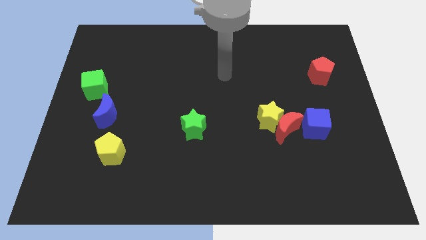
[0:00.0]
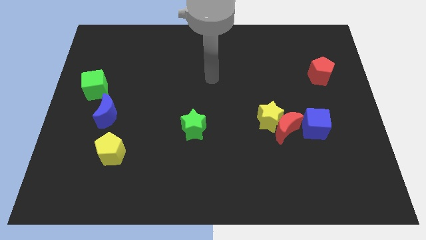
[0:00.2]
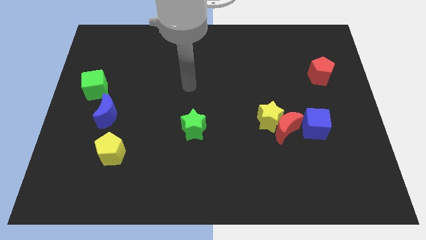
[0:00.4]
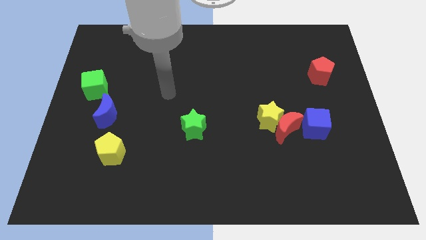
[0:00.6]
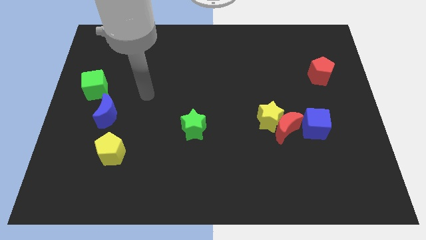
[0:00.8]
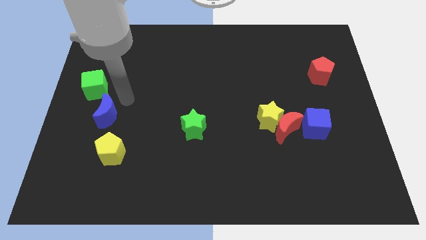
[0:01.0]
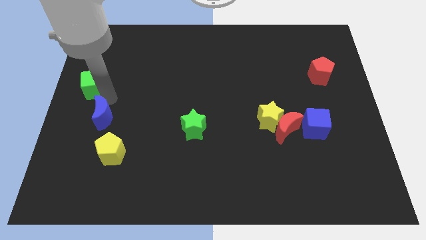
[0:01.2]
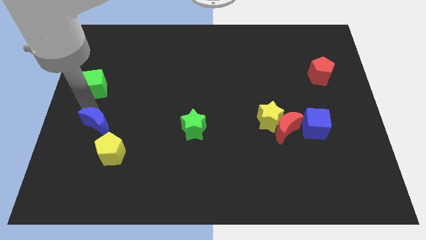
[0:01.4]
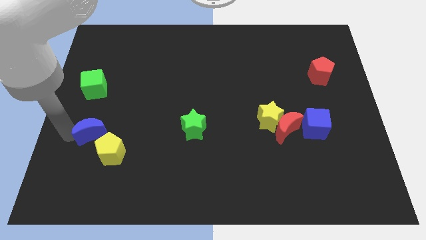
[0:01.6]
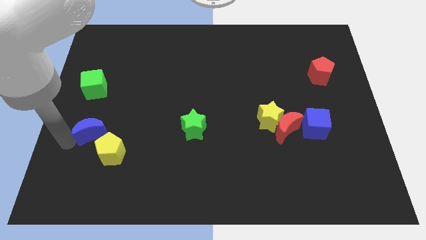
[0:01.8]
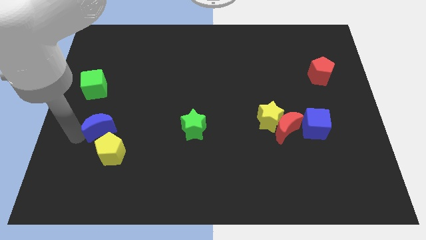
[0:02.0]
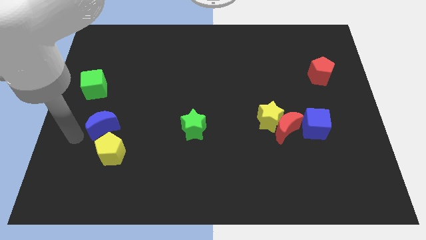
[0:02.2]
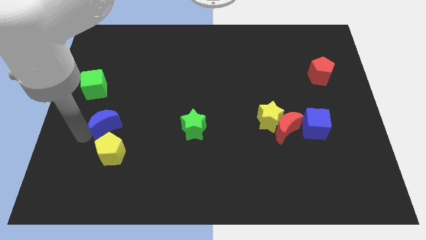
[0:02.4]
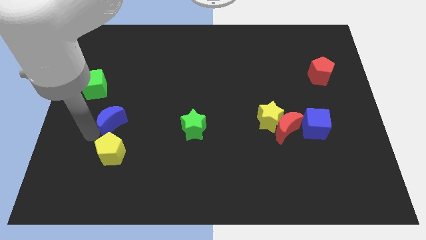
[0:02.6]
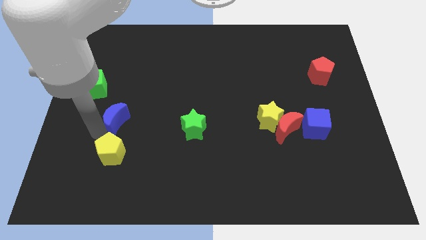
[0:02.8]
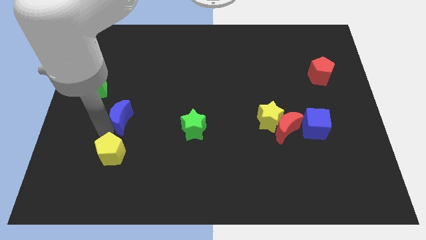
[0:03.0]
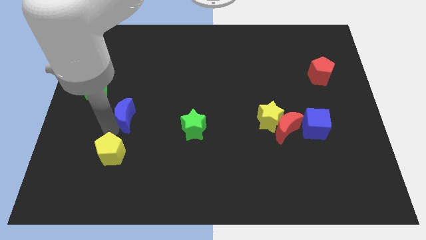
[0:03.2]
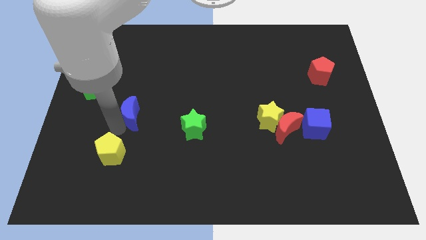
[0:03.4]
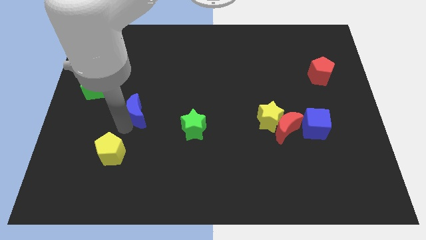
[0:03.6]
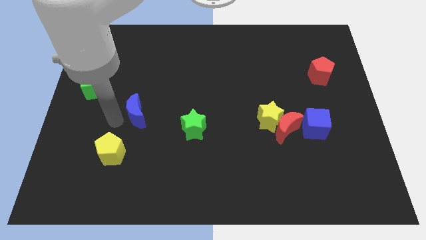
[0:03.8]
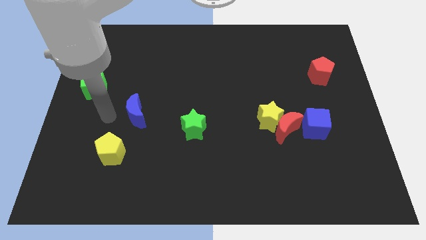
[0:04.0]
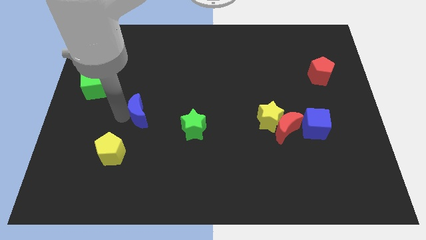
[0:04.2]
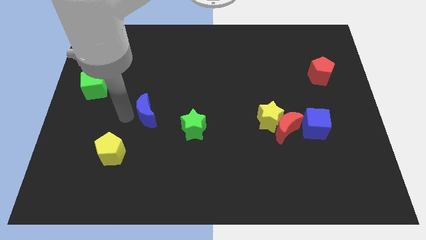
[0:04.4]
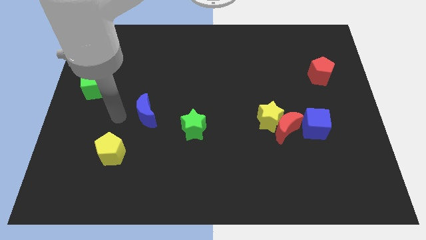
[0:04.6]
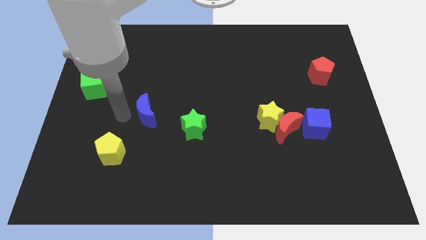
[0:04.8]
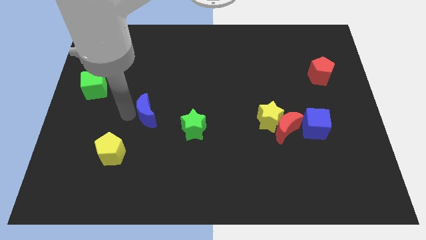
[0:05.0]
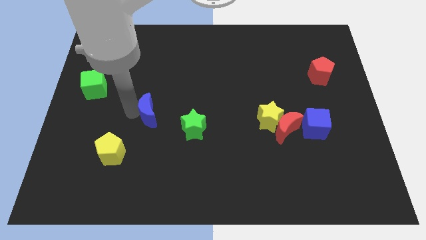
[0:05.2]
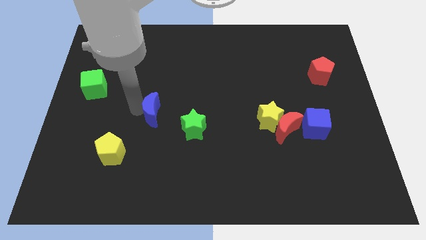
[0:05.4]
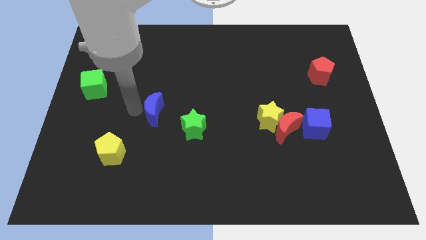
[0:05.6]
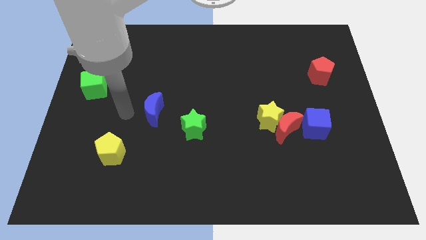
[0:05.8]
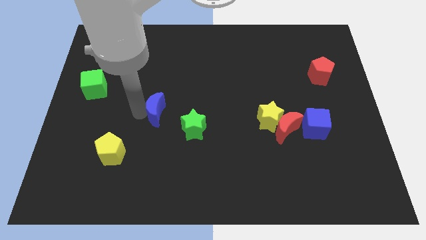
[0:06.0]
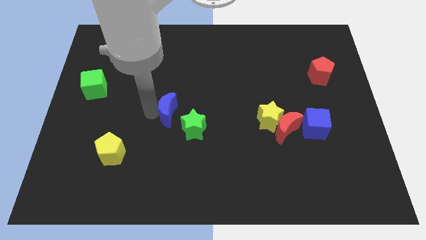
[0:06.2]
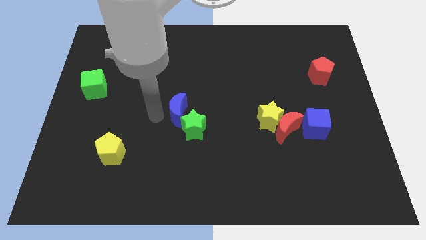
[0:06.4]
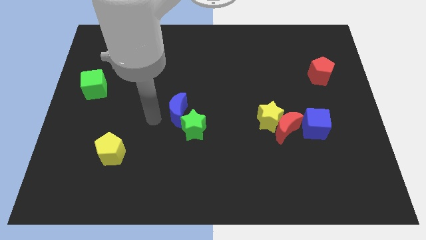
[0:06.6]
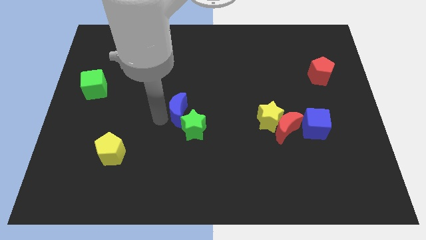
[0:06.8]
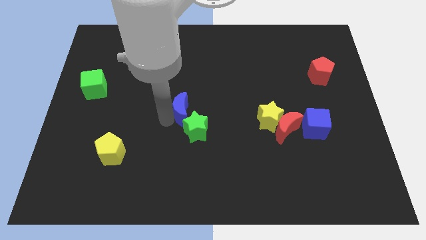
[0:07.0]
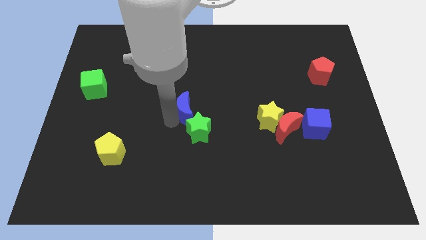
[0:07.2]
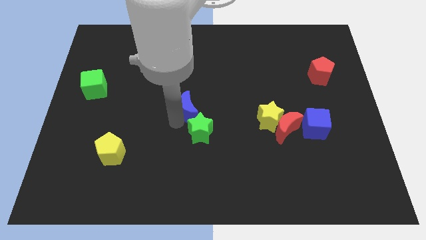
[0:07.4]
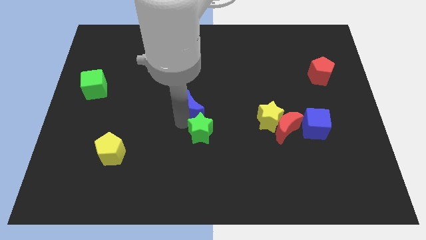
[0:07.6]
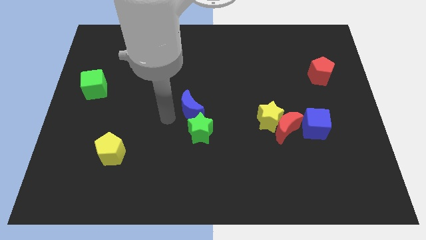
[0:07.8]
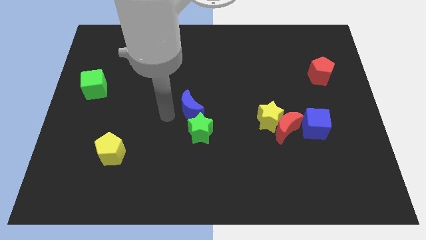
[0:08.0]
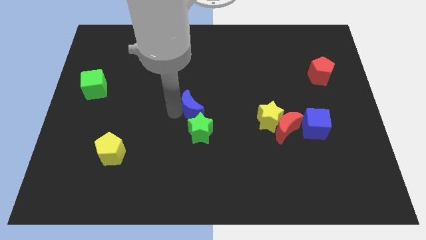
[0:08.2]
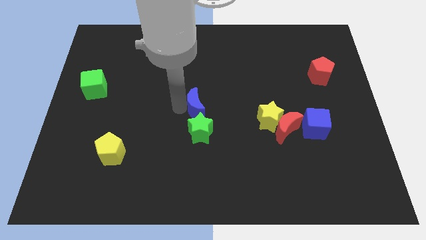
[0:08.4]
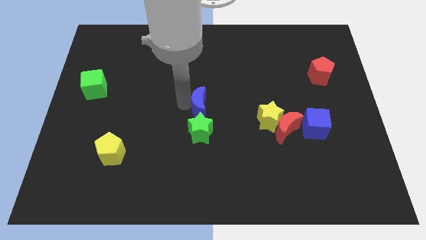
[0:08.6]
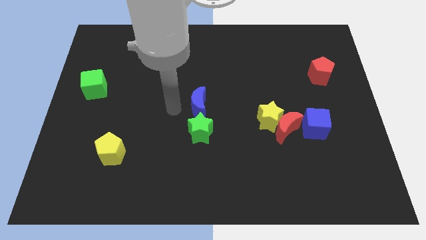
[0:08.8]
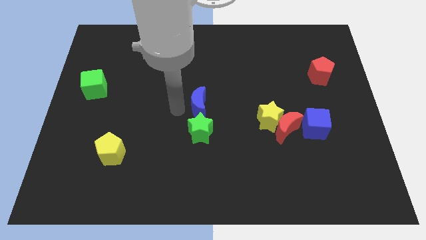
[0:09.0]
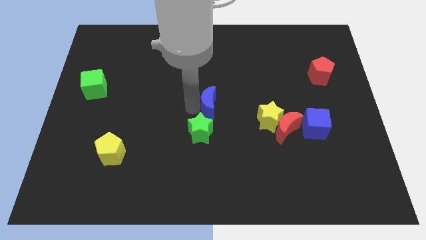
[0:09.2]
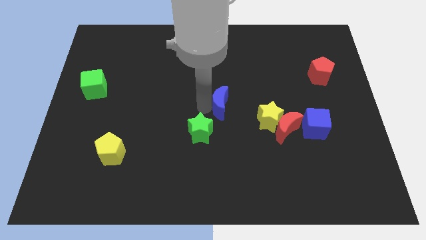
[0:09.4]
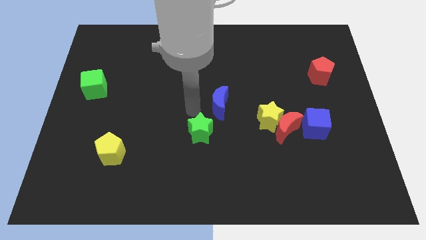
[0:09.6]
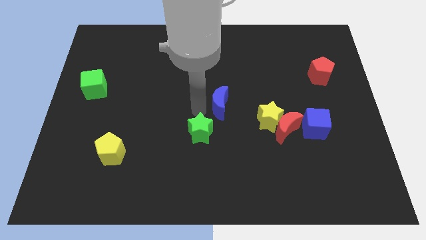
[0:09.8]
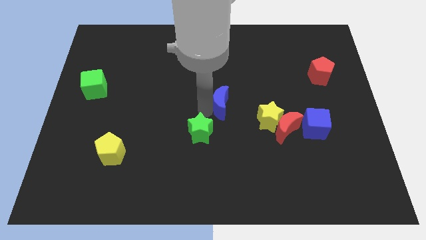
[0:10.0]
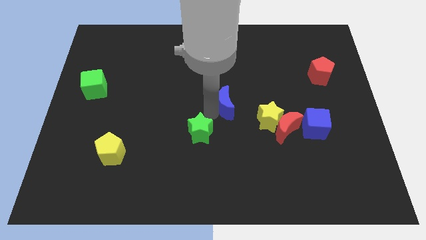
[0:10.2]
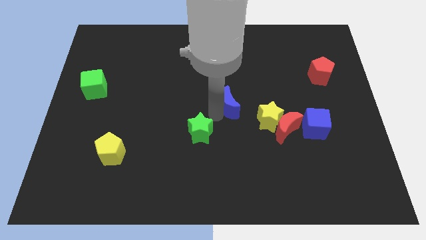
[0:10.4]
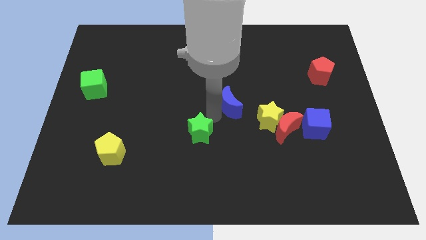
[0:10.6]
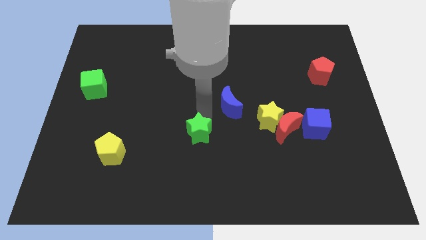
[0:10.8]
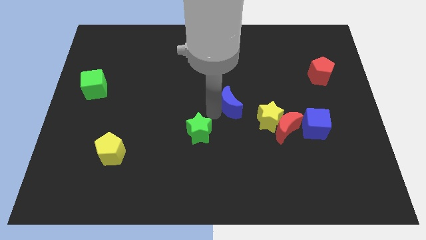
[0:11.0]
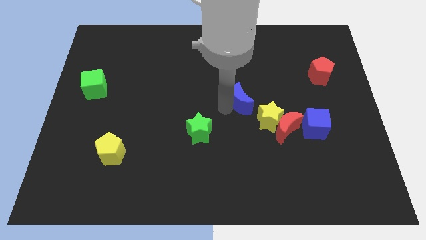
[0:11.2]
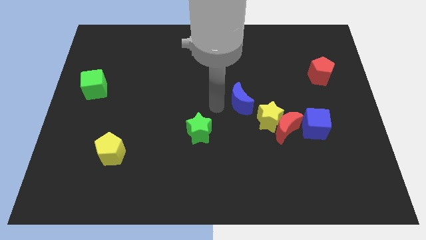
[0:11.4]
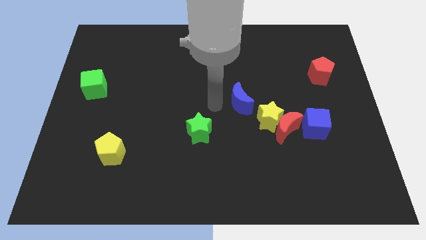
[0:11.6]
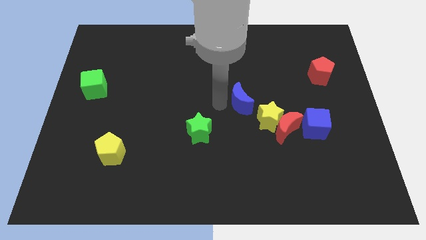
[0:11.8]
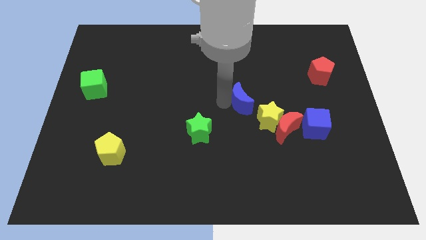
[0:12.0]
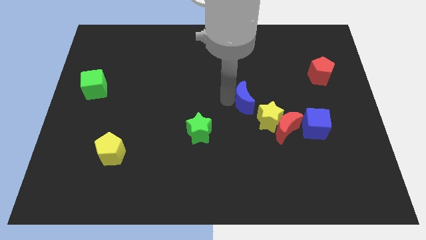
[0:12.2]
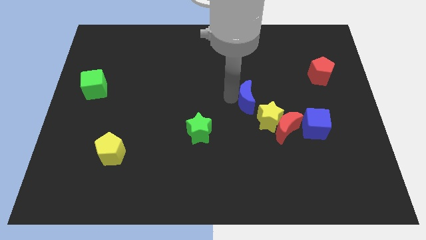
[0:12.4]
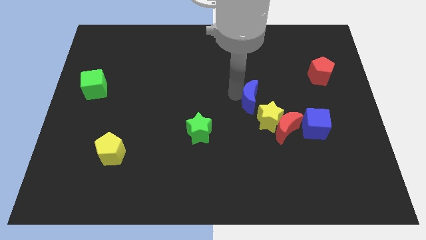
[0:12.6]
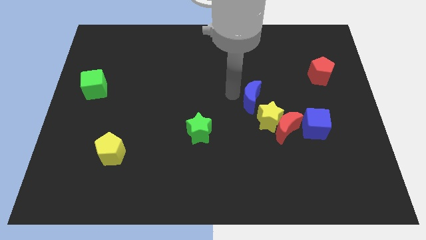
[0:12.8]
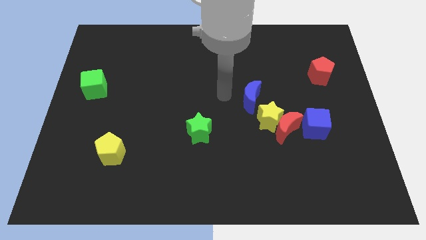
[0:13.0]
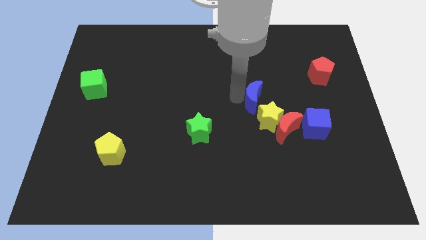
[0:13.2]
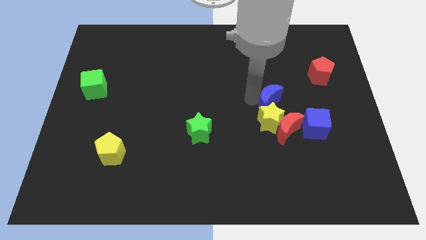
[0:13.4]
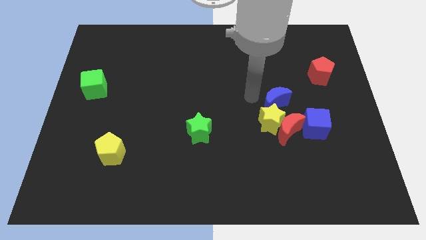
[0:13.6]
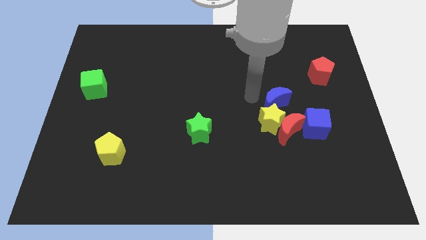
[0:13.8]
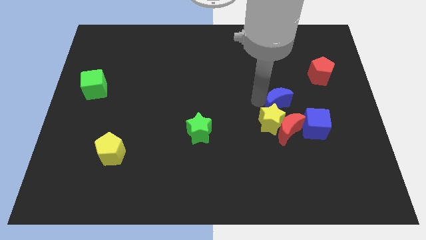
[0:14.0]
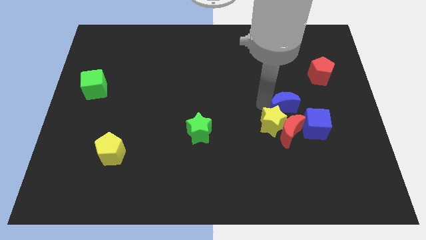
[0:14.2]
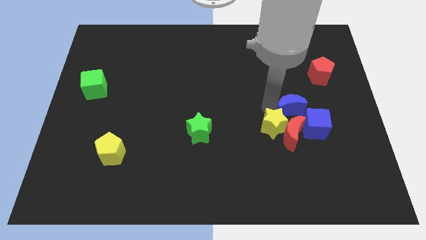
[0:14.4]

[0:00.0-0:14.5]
slide the blue moon diagonally up and to the right of the red moon
